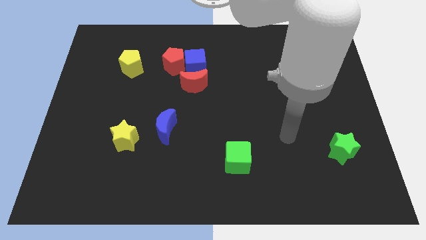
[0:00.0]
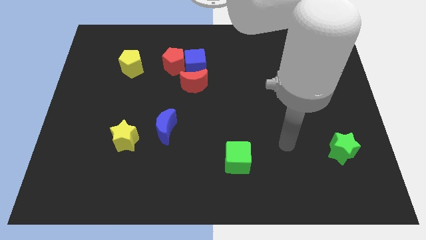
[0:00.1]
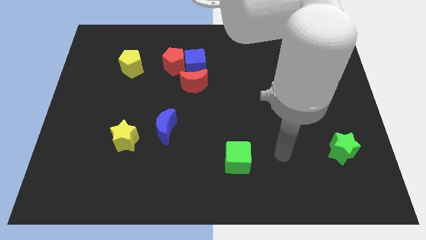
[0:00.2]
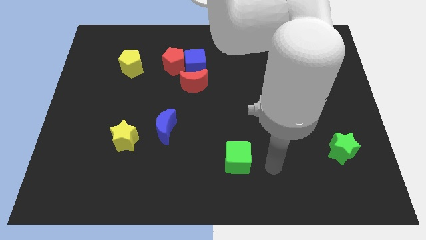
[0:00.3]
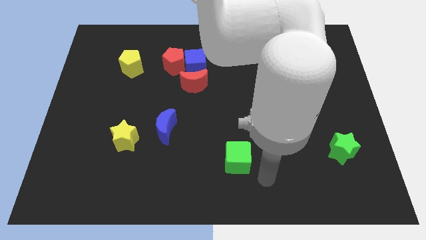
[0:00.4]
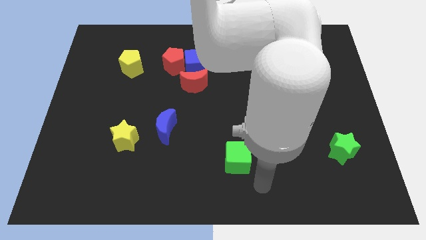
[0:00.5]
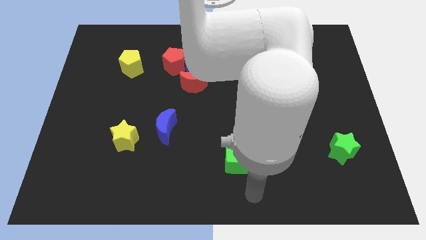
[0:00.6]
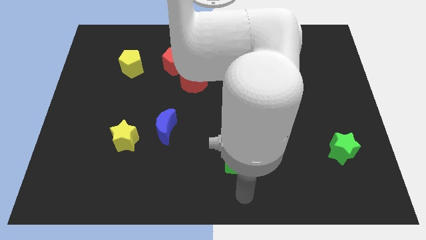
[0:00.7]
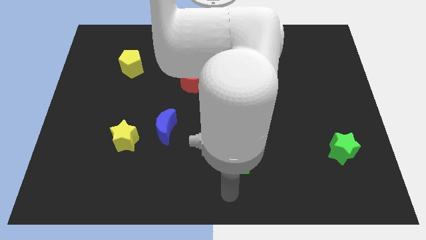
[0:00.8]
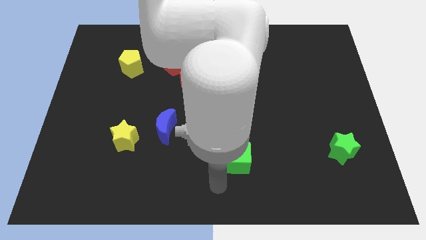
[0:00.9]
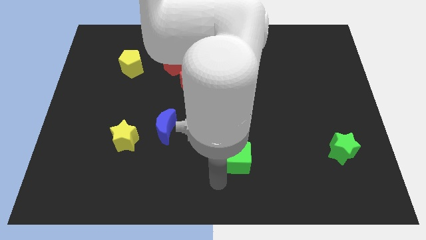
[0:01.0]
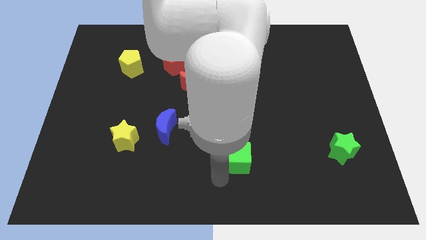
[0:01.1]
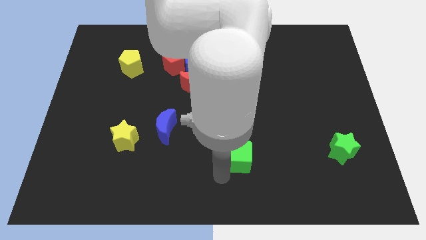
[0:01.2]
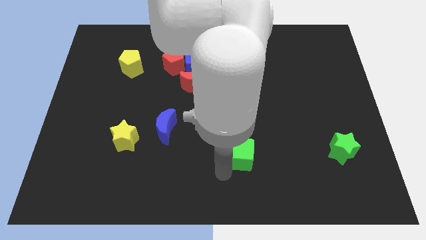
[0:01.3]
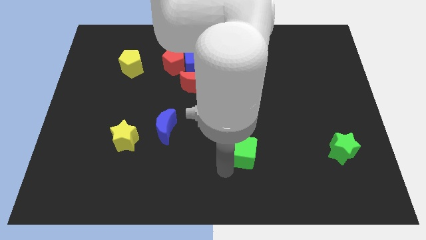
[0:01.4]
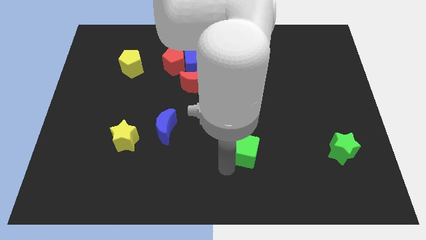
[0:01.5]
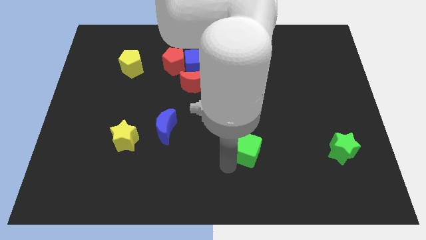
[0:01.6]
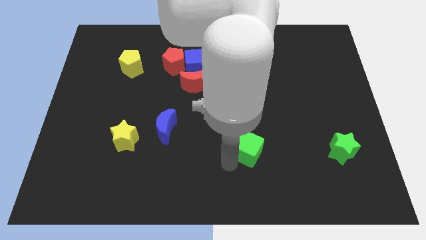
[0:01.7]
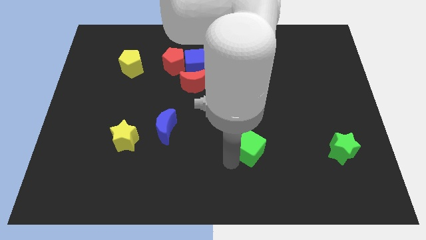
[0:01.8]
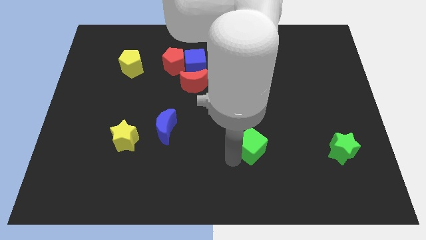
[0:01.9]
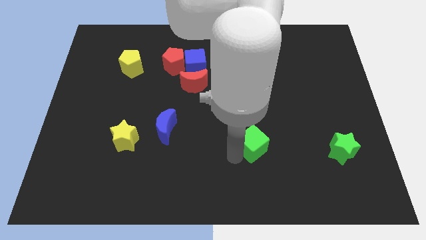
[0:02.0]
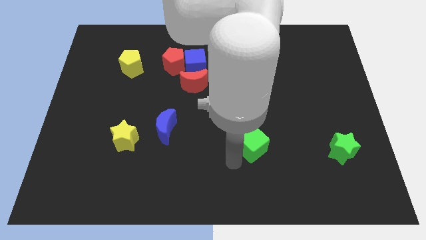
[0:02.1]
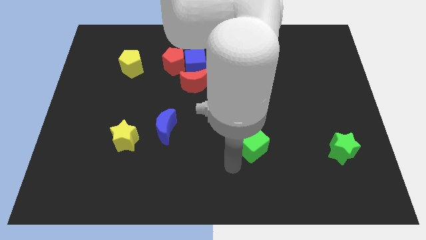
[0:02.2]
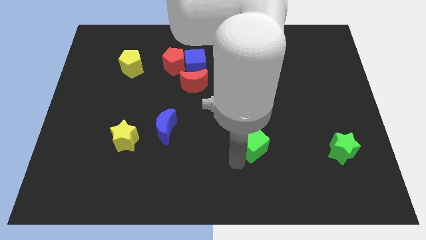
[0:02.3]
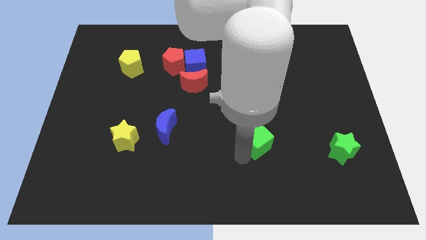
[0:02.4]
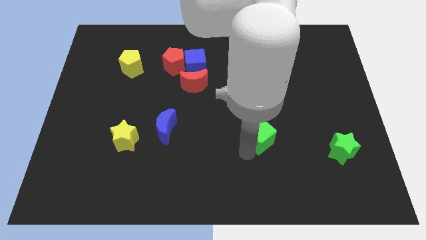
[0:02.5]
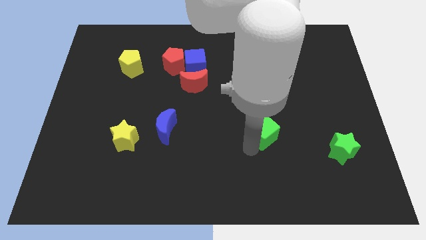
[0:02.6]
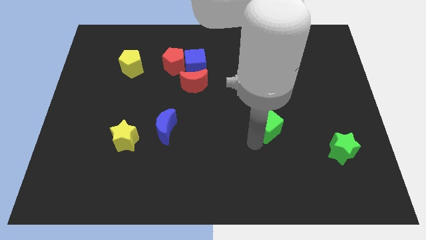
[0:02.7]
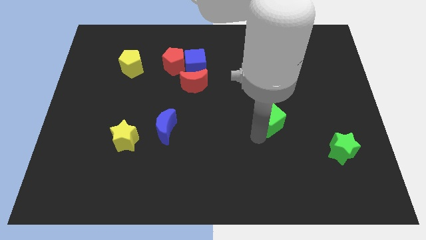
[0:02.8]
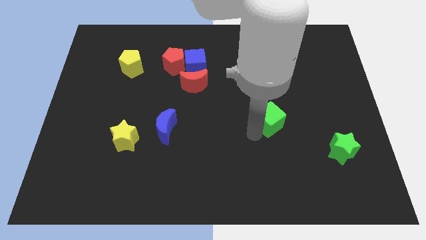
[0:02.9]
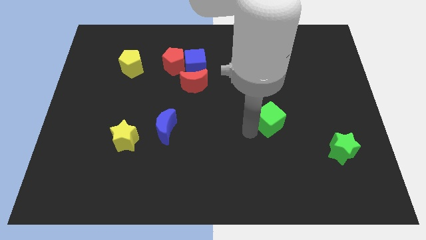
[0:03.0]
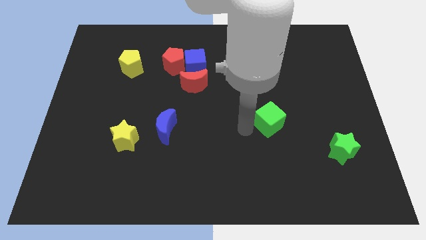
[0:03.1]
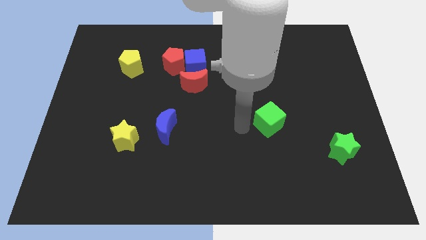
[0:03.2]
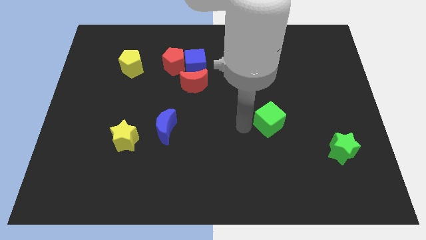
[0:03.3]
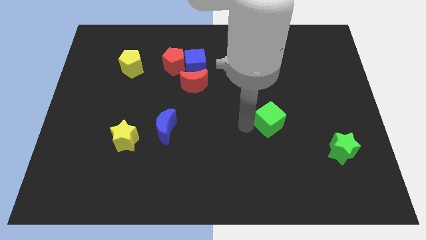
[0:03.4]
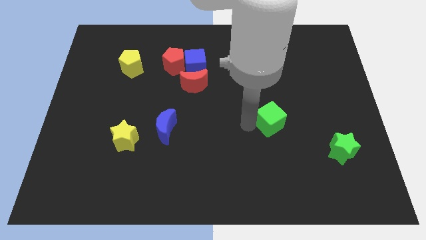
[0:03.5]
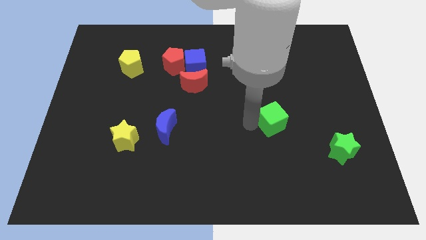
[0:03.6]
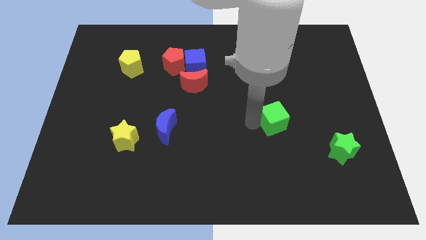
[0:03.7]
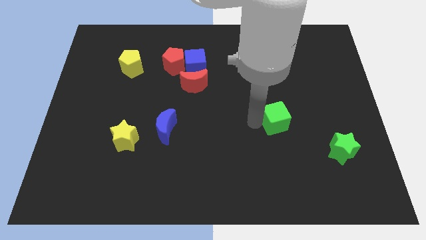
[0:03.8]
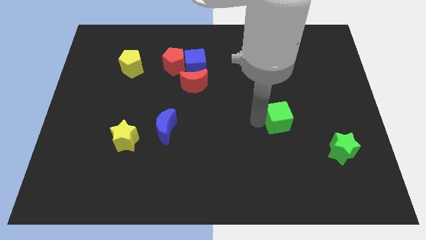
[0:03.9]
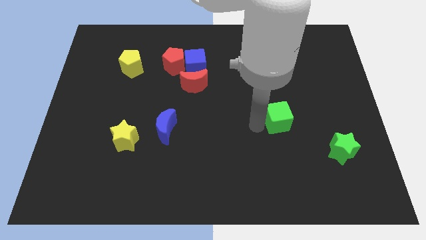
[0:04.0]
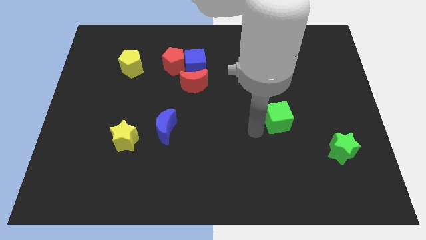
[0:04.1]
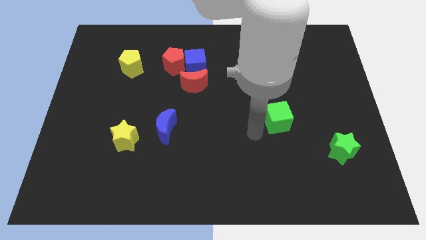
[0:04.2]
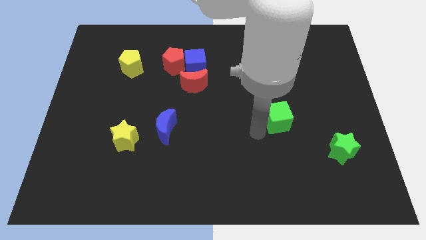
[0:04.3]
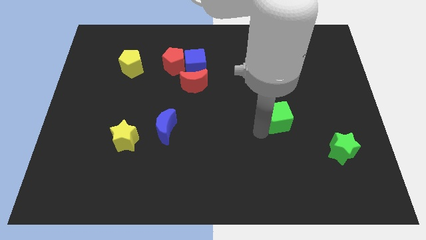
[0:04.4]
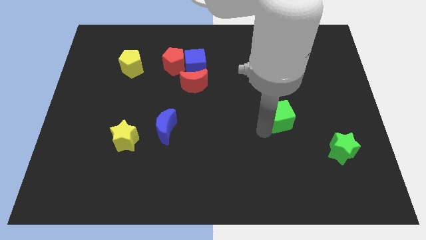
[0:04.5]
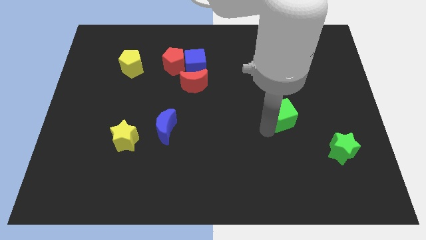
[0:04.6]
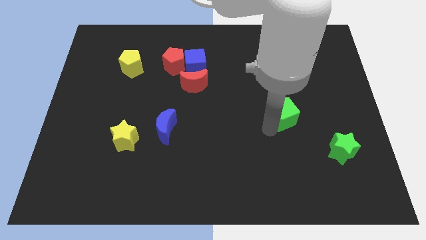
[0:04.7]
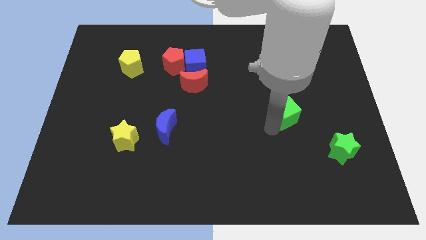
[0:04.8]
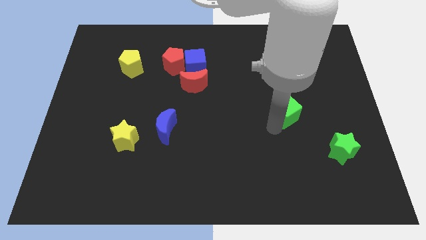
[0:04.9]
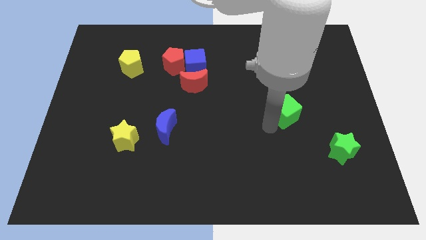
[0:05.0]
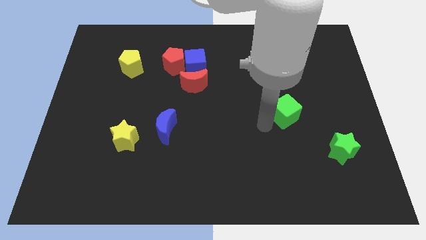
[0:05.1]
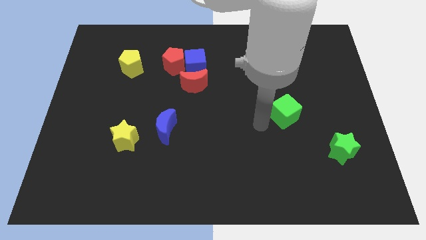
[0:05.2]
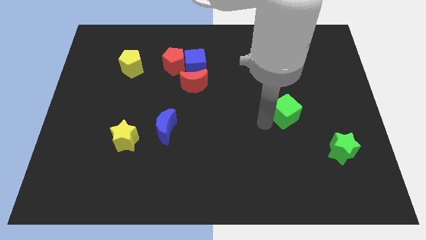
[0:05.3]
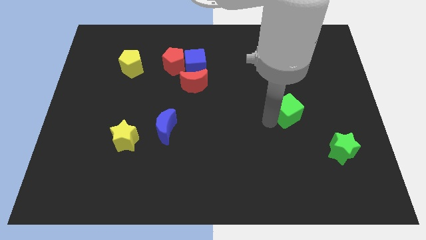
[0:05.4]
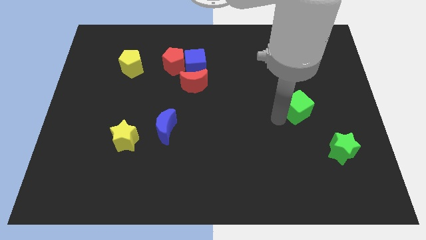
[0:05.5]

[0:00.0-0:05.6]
move the green cube diagonally up and right

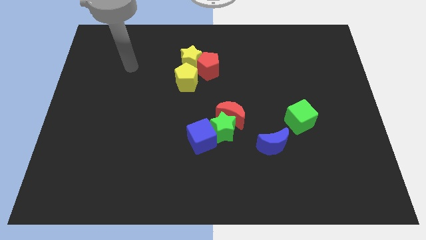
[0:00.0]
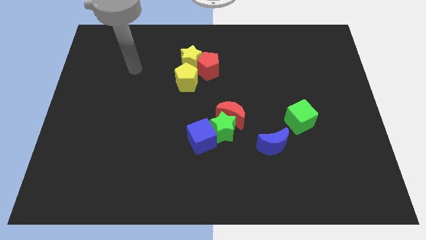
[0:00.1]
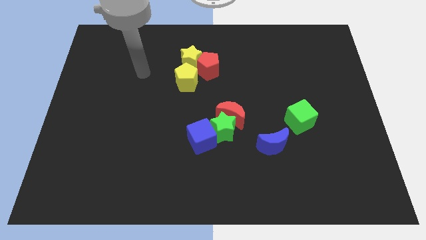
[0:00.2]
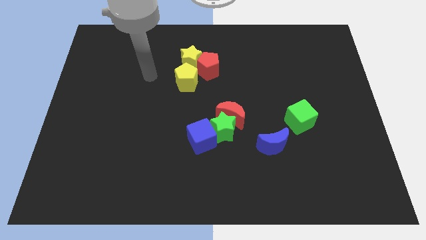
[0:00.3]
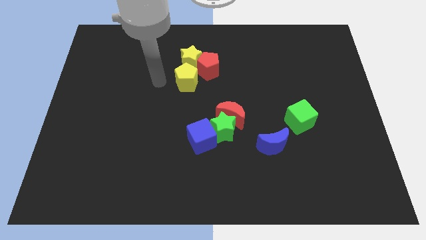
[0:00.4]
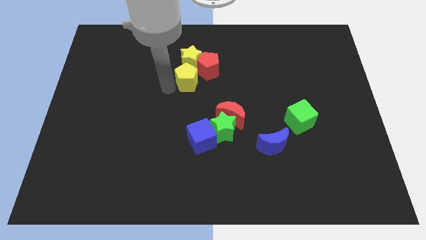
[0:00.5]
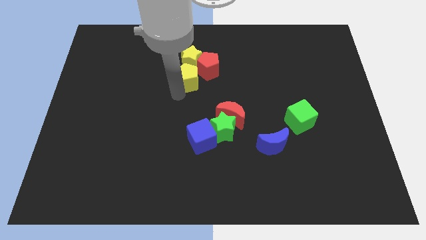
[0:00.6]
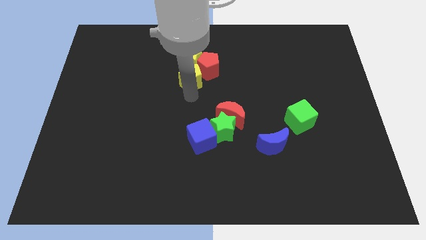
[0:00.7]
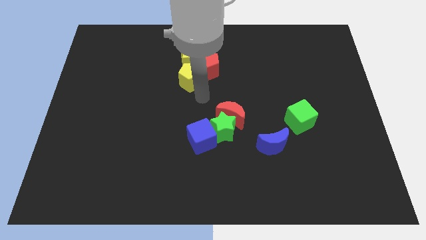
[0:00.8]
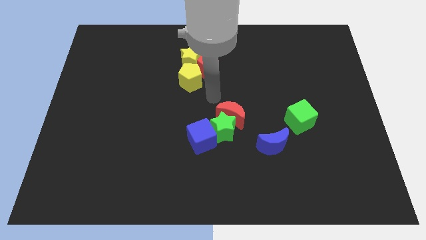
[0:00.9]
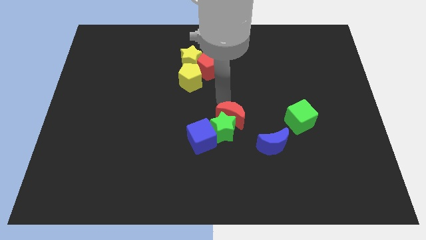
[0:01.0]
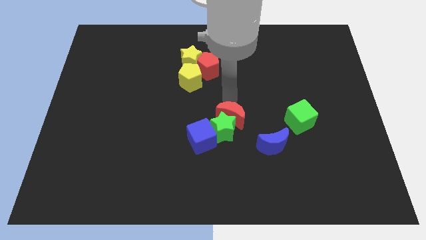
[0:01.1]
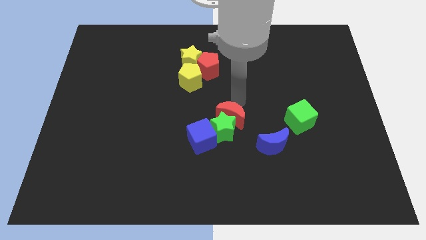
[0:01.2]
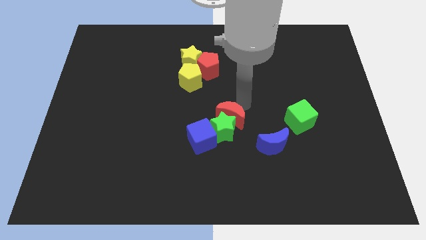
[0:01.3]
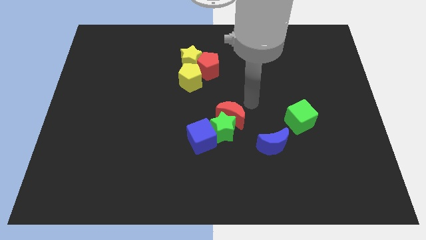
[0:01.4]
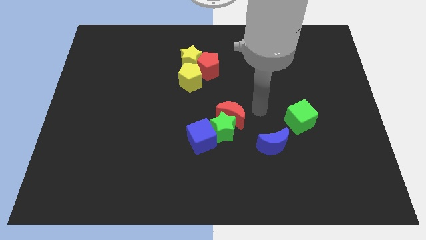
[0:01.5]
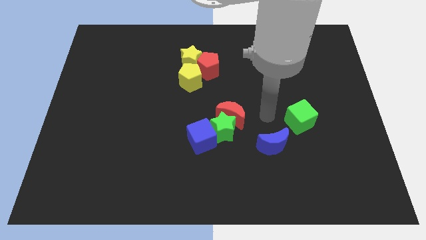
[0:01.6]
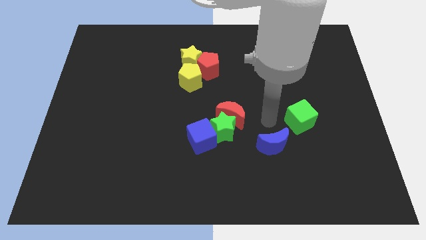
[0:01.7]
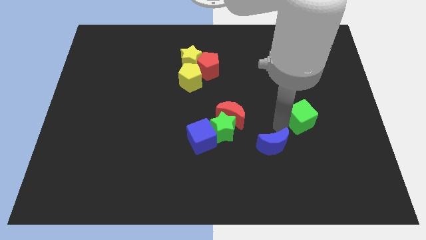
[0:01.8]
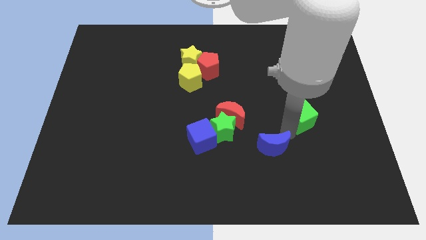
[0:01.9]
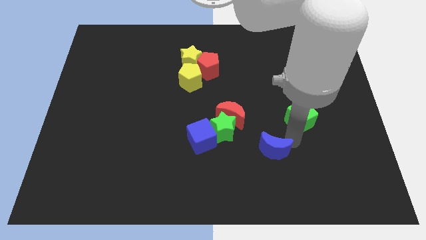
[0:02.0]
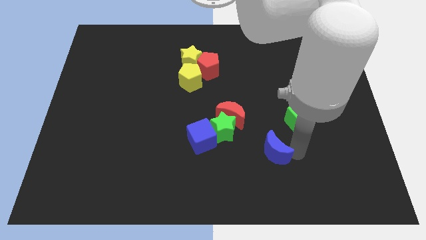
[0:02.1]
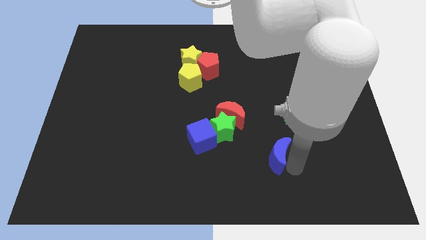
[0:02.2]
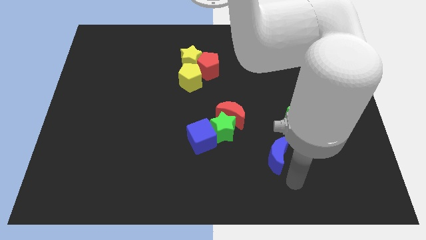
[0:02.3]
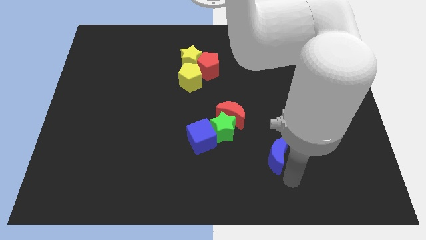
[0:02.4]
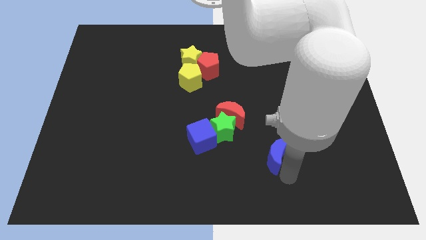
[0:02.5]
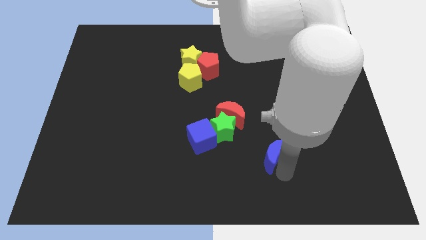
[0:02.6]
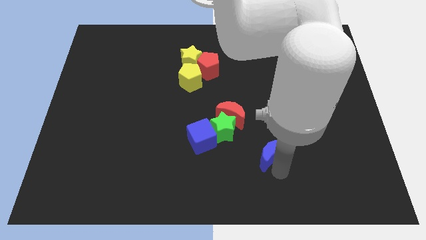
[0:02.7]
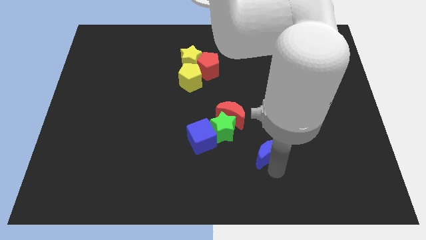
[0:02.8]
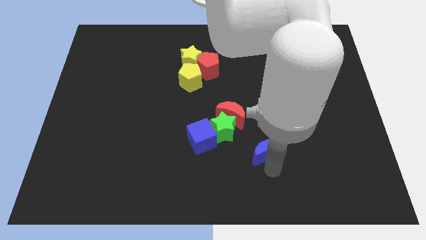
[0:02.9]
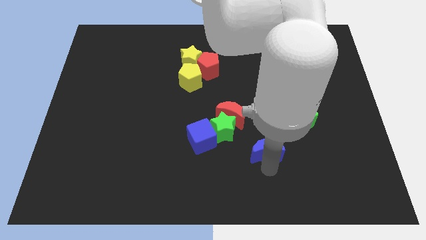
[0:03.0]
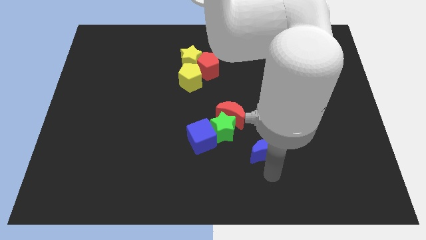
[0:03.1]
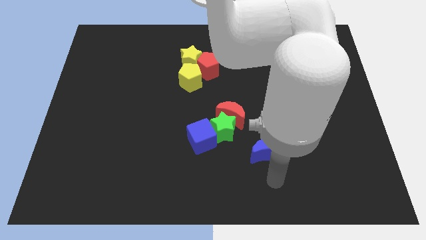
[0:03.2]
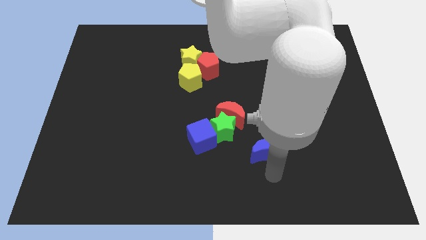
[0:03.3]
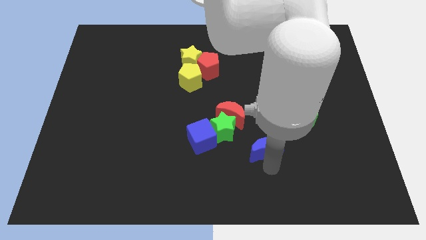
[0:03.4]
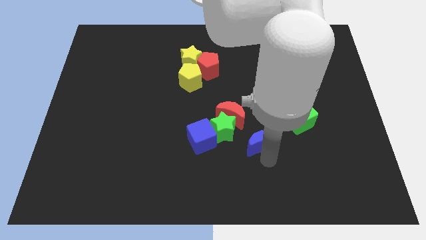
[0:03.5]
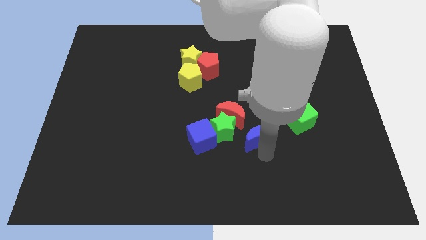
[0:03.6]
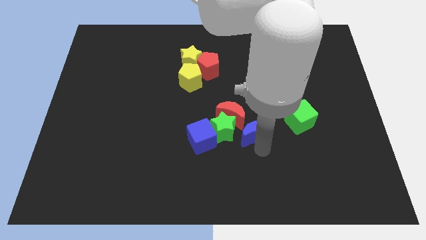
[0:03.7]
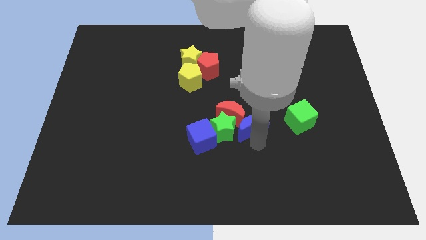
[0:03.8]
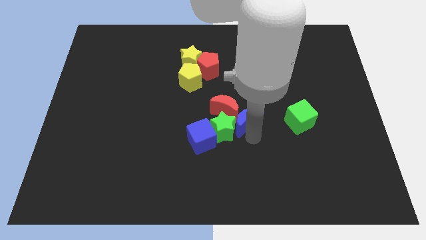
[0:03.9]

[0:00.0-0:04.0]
push the blue moon upwards and to the left diagonally a little
